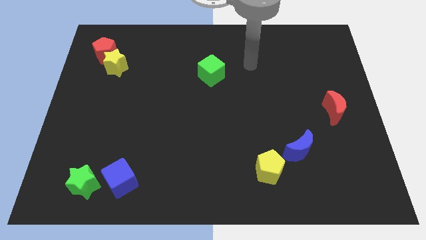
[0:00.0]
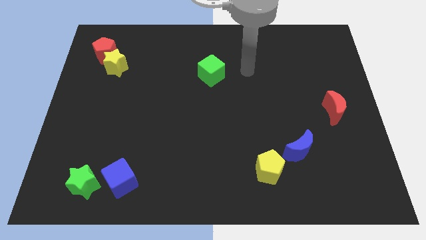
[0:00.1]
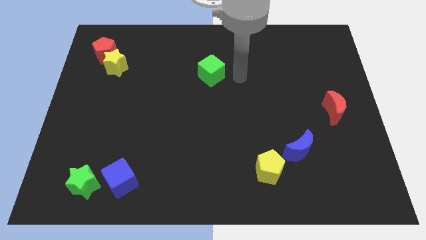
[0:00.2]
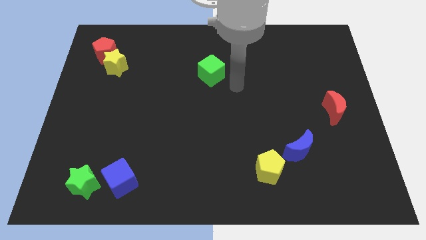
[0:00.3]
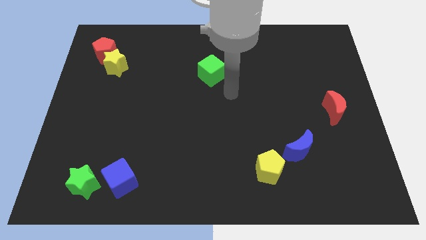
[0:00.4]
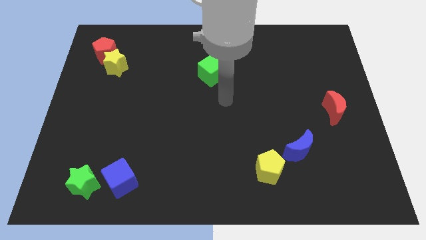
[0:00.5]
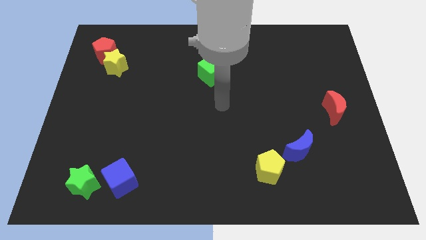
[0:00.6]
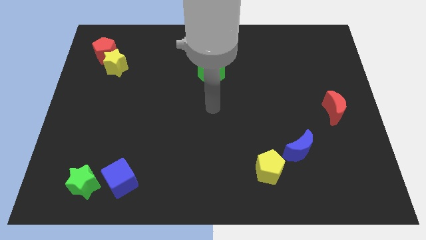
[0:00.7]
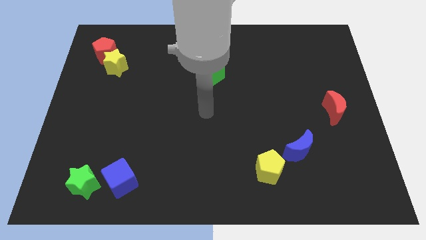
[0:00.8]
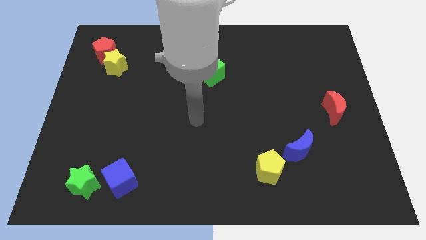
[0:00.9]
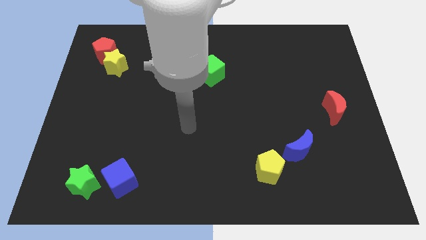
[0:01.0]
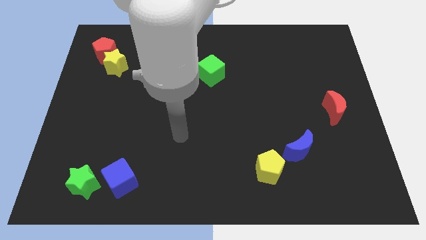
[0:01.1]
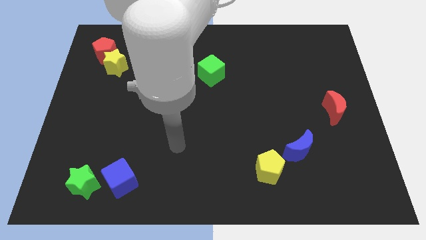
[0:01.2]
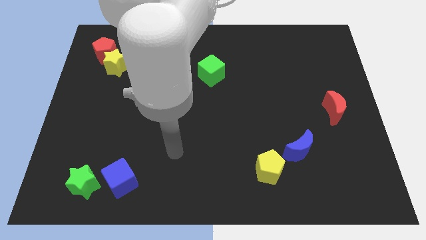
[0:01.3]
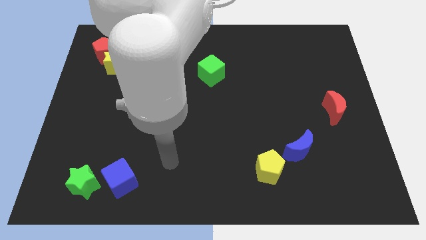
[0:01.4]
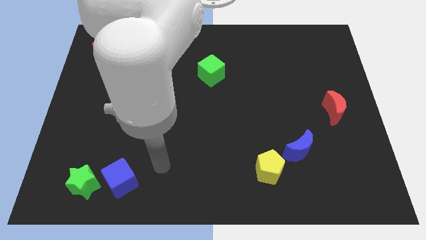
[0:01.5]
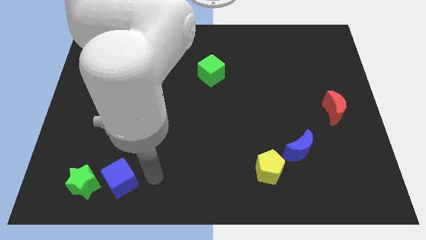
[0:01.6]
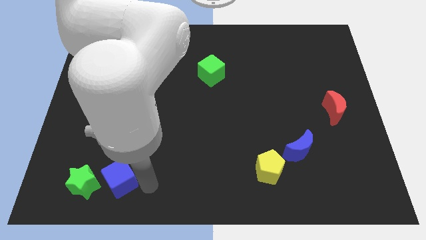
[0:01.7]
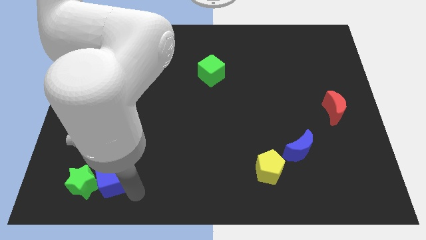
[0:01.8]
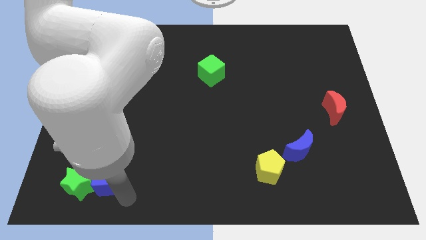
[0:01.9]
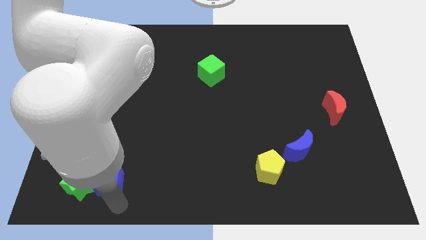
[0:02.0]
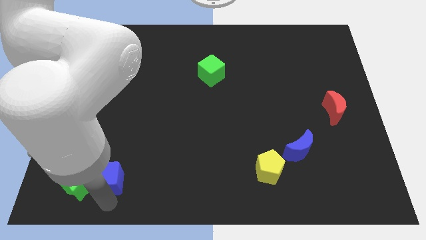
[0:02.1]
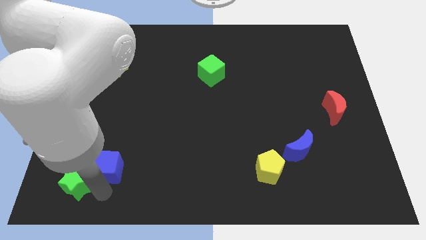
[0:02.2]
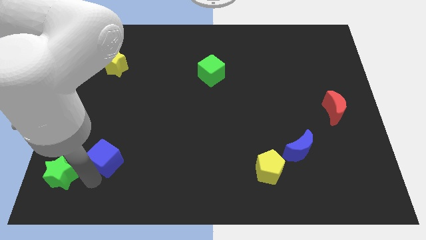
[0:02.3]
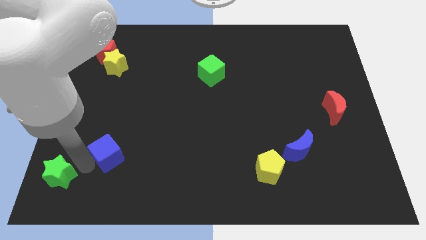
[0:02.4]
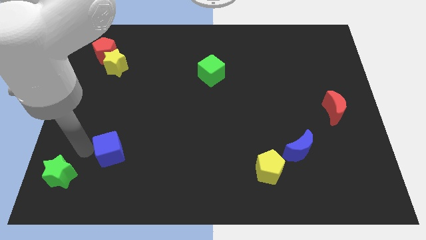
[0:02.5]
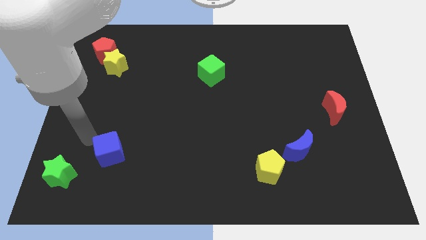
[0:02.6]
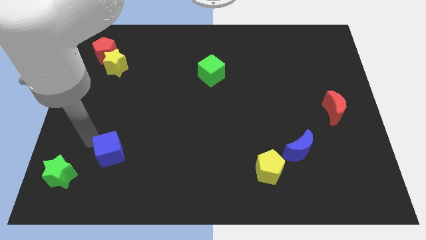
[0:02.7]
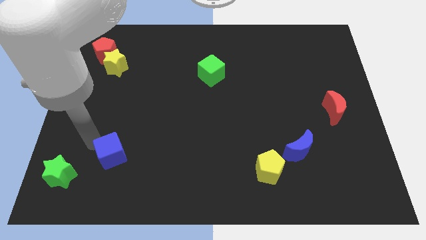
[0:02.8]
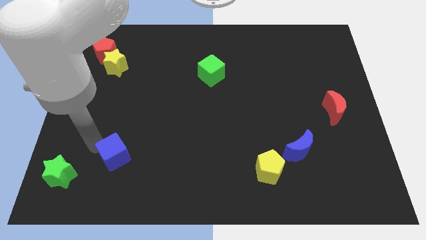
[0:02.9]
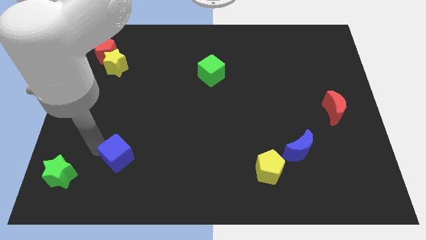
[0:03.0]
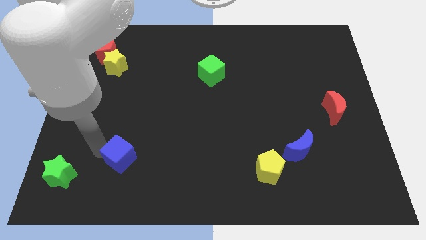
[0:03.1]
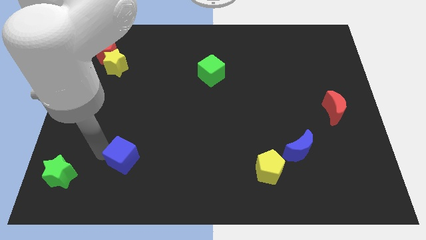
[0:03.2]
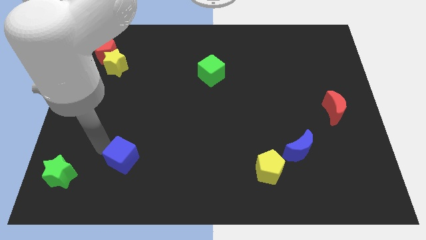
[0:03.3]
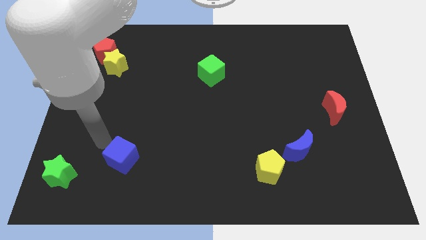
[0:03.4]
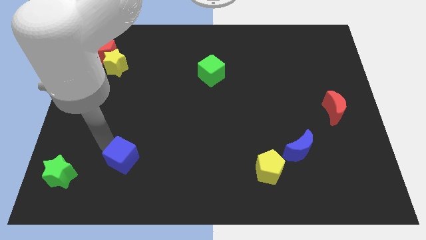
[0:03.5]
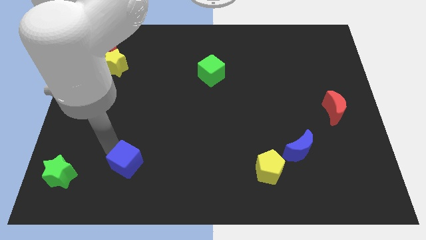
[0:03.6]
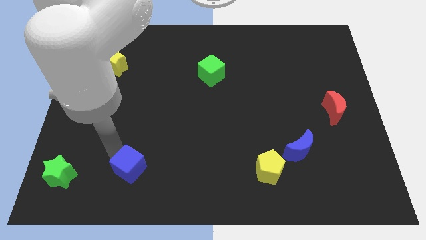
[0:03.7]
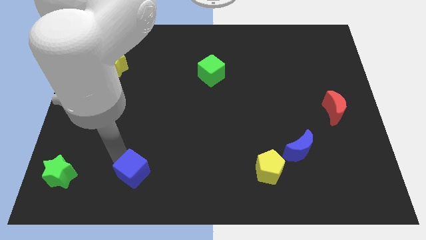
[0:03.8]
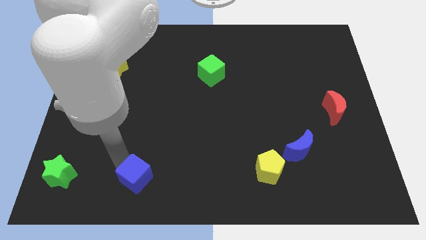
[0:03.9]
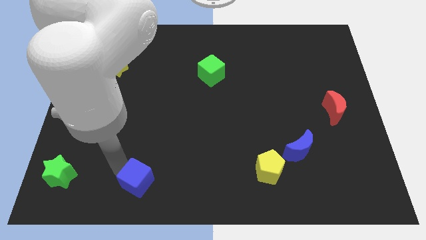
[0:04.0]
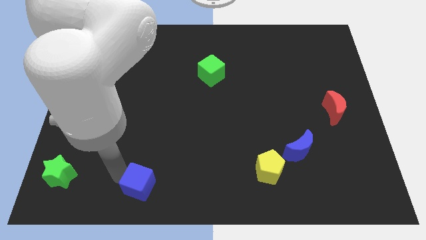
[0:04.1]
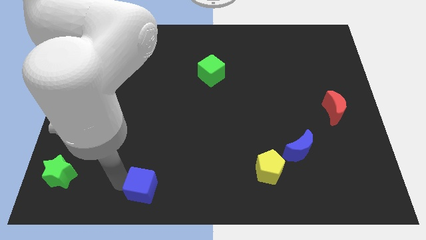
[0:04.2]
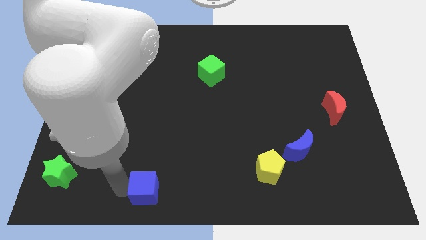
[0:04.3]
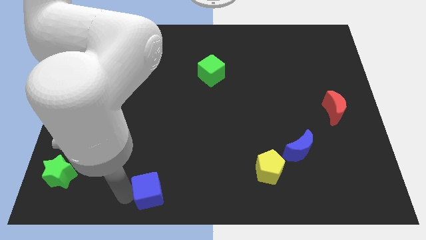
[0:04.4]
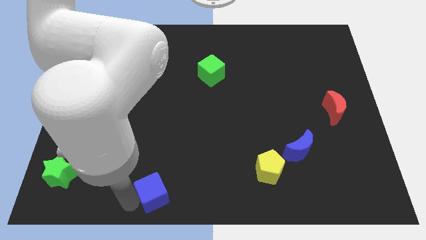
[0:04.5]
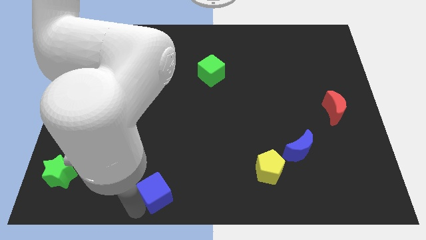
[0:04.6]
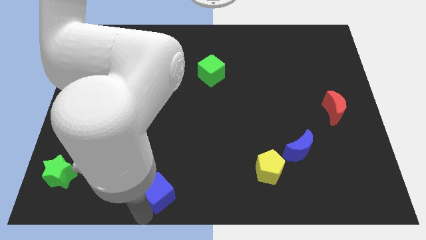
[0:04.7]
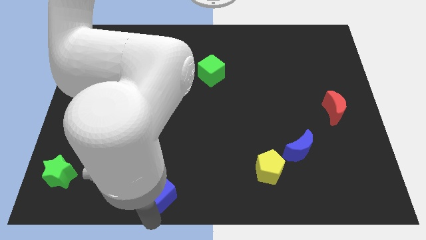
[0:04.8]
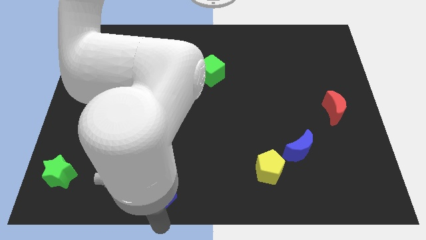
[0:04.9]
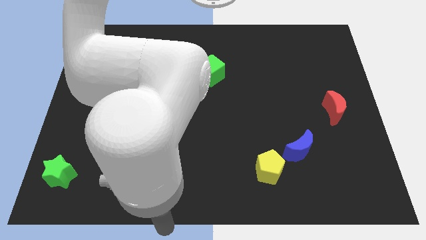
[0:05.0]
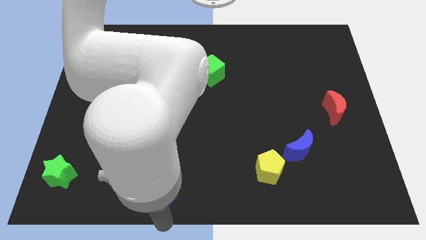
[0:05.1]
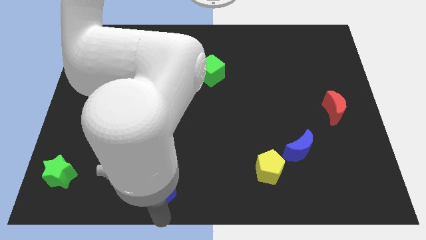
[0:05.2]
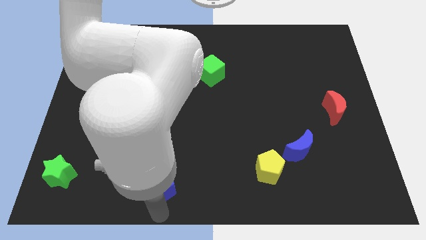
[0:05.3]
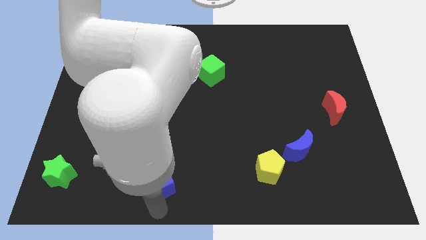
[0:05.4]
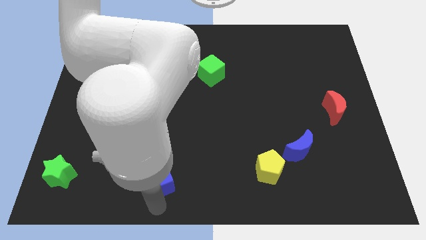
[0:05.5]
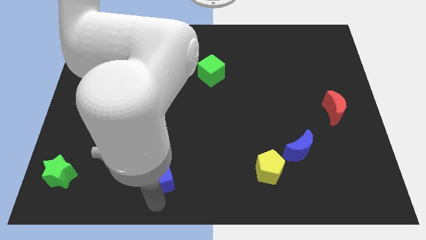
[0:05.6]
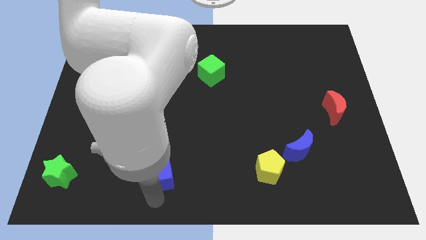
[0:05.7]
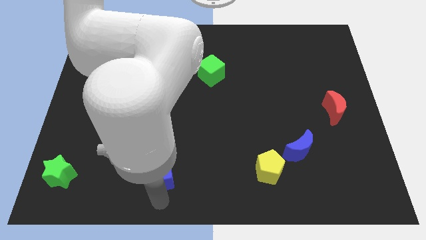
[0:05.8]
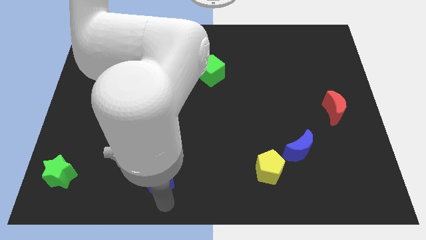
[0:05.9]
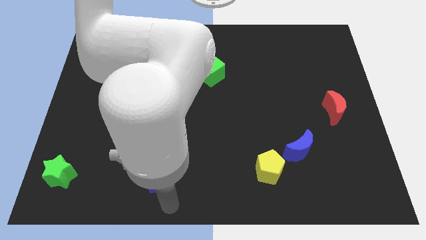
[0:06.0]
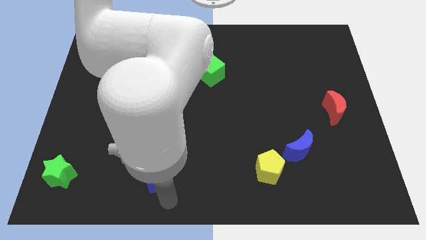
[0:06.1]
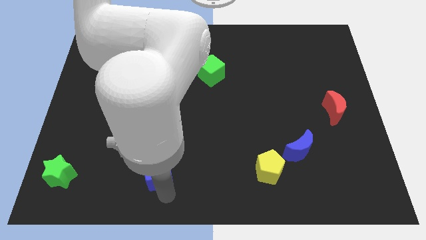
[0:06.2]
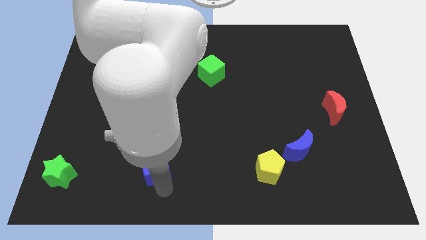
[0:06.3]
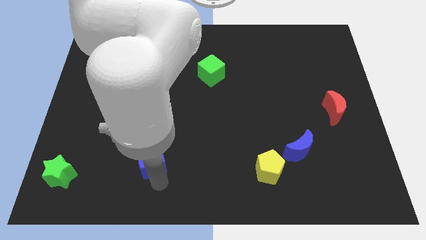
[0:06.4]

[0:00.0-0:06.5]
slightly push the blue cube upwards and right diagonally

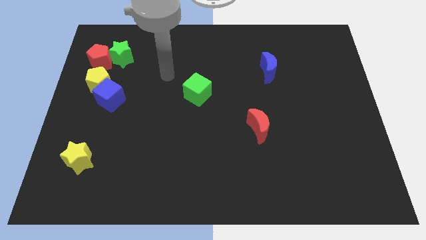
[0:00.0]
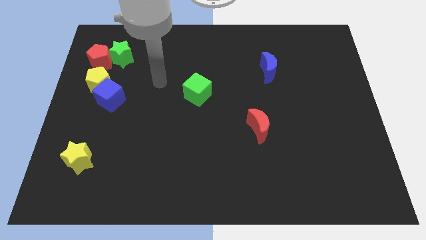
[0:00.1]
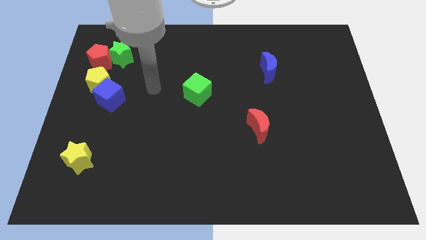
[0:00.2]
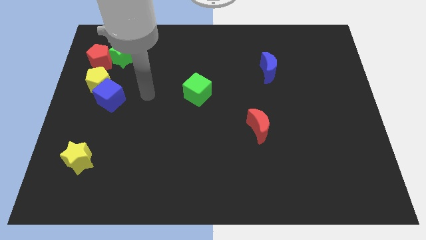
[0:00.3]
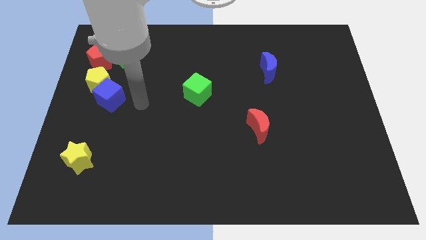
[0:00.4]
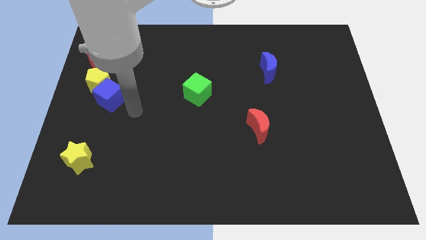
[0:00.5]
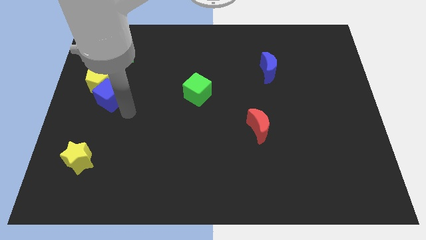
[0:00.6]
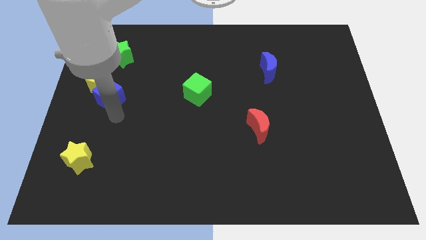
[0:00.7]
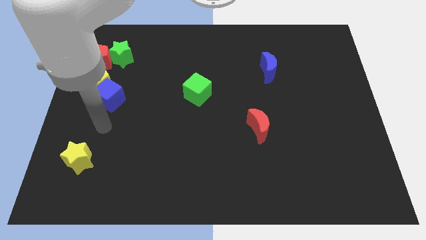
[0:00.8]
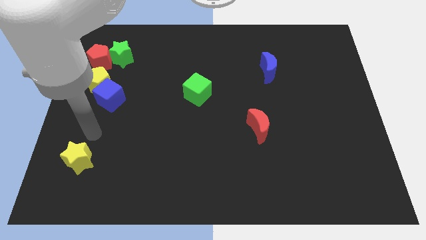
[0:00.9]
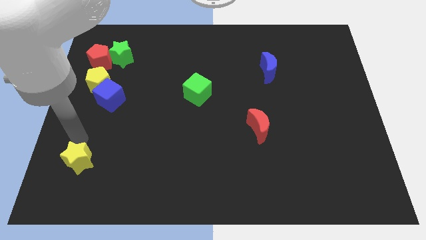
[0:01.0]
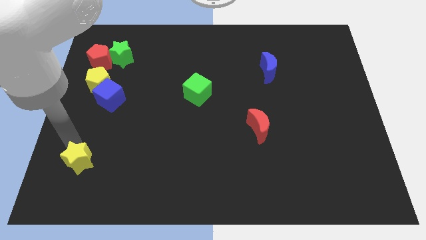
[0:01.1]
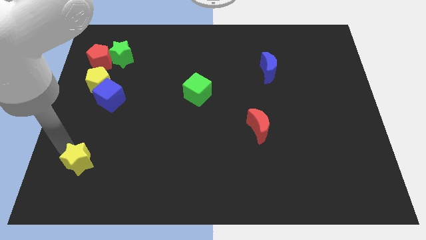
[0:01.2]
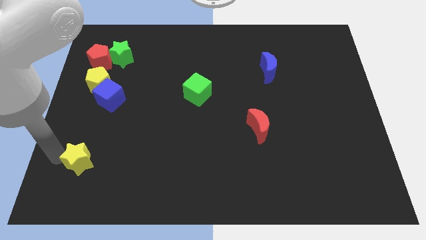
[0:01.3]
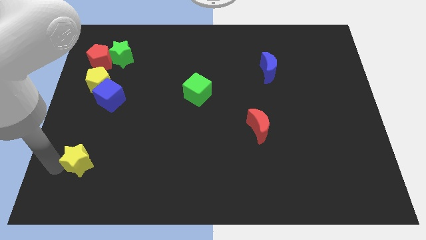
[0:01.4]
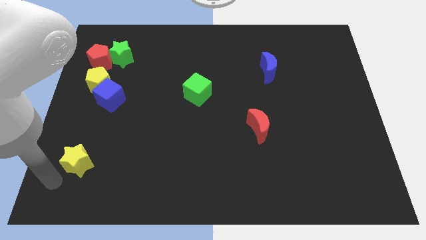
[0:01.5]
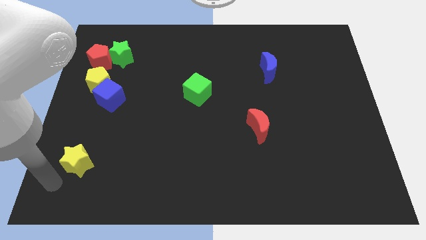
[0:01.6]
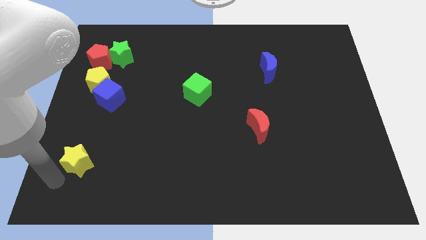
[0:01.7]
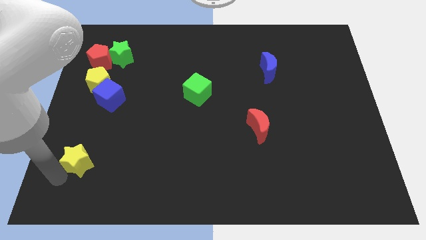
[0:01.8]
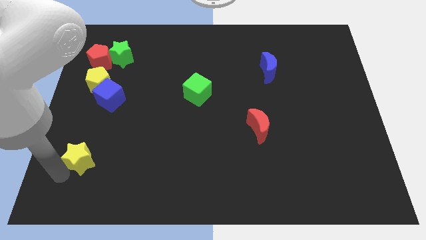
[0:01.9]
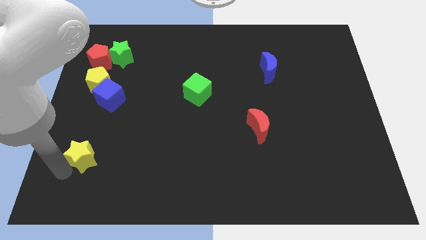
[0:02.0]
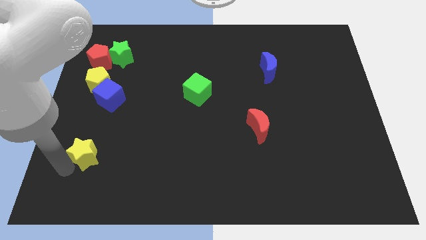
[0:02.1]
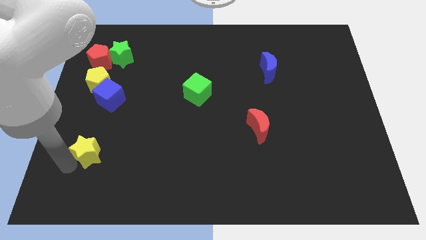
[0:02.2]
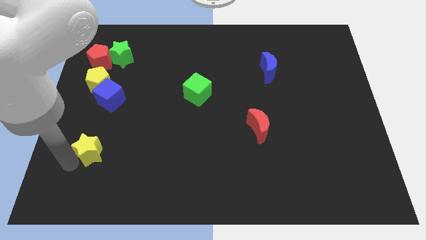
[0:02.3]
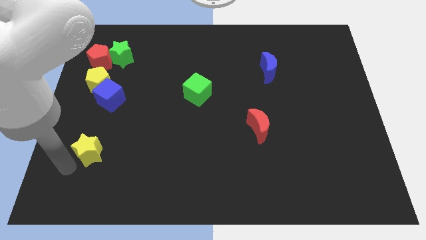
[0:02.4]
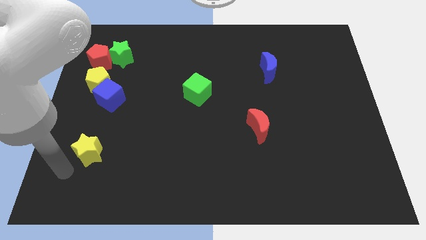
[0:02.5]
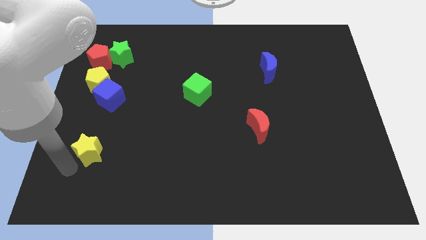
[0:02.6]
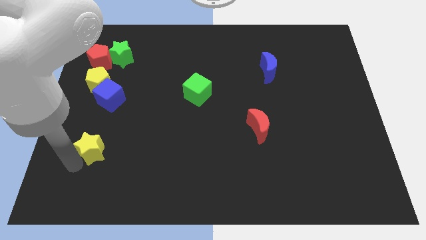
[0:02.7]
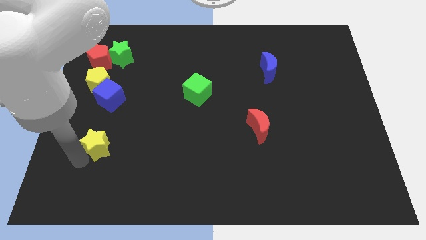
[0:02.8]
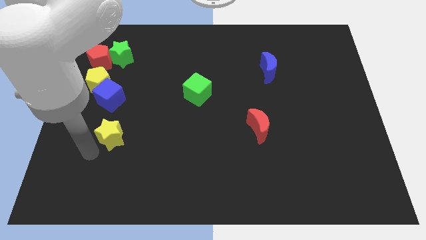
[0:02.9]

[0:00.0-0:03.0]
slightly move the yellow star upwards and to the right
